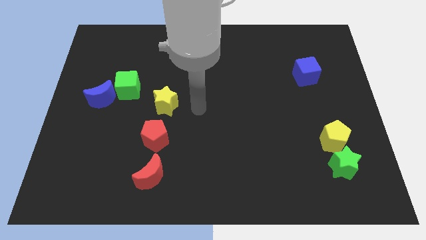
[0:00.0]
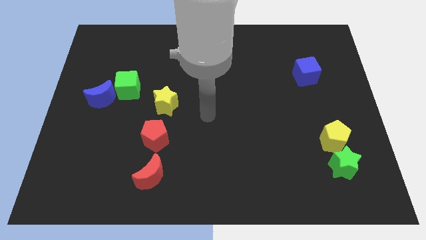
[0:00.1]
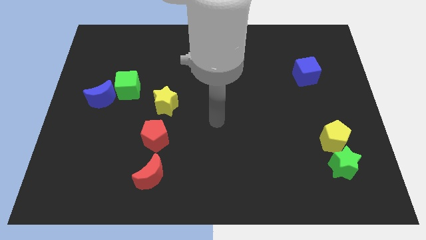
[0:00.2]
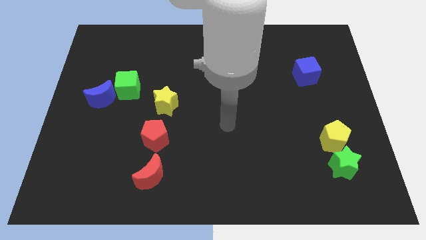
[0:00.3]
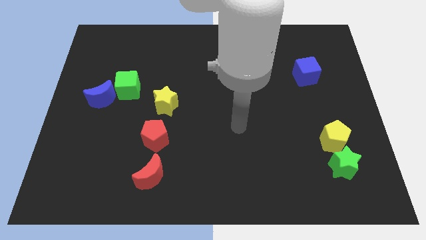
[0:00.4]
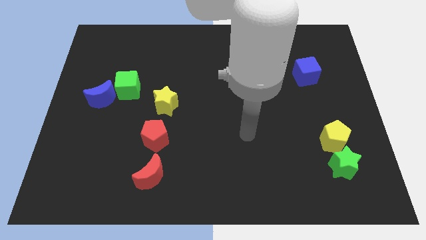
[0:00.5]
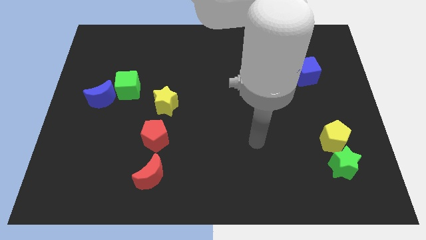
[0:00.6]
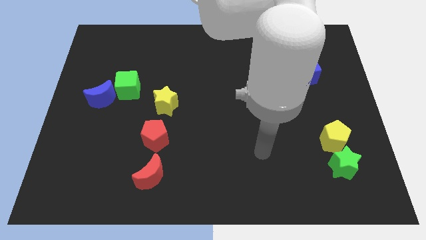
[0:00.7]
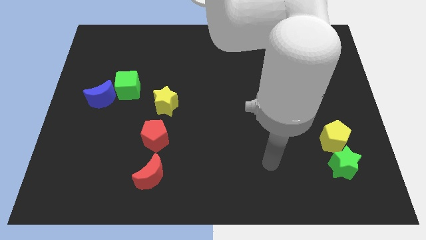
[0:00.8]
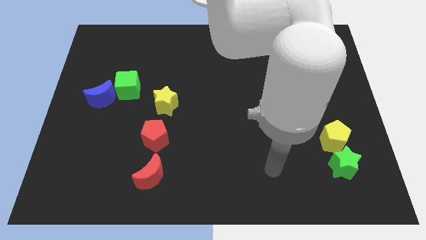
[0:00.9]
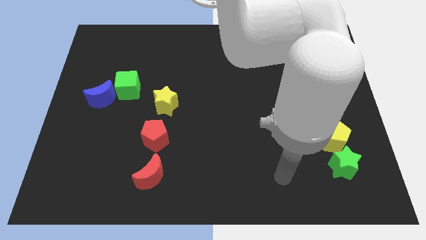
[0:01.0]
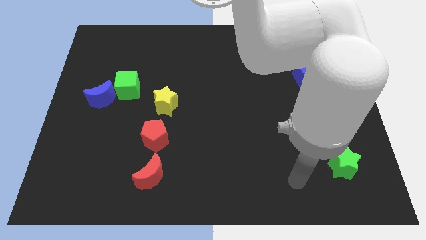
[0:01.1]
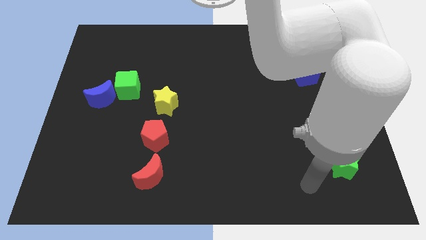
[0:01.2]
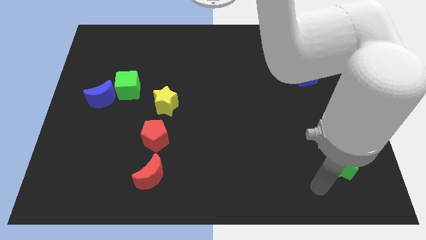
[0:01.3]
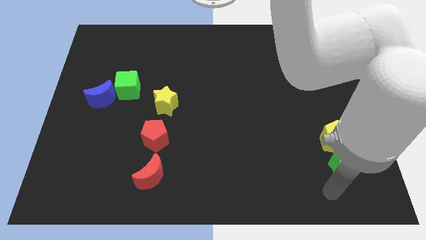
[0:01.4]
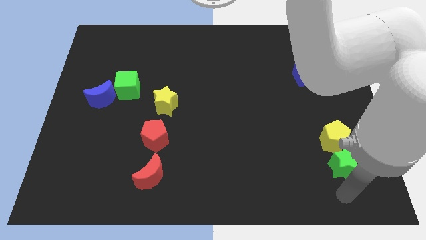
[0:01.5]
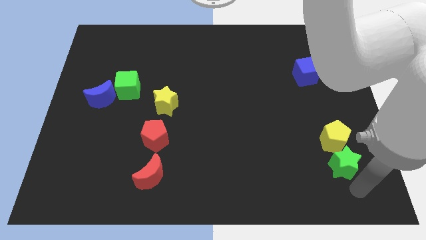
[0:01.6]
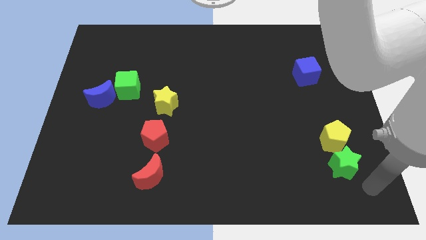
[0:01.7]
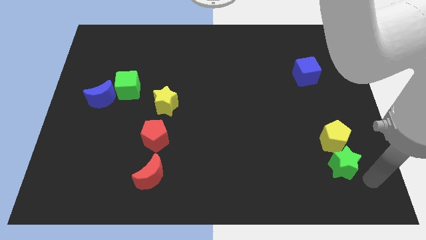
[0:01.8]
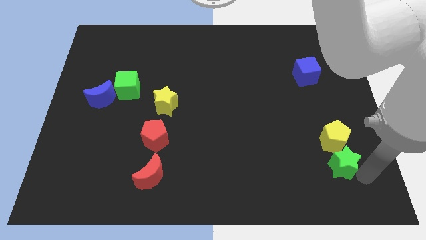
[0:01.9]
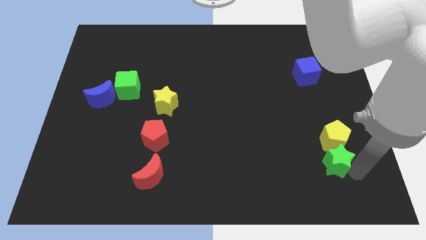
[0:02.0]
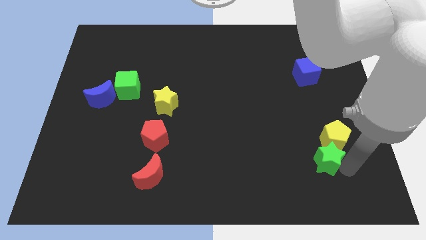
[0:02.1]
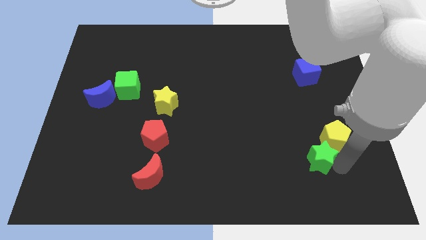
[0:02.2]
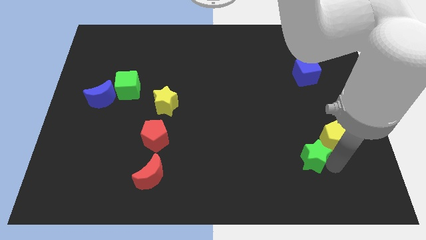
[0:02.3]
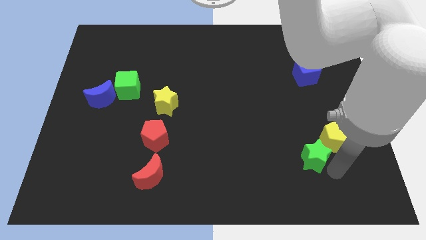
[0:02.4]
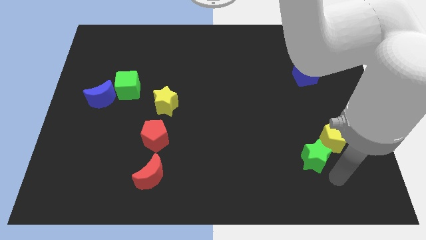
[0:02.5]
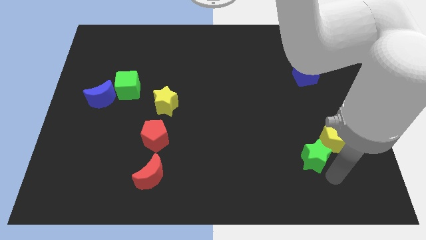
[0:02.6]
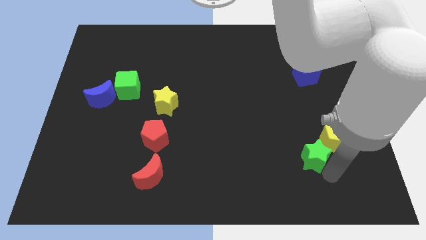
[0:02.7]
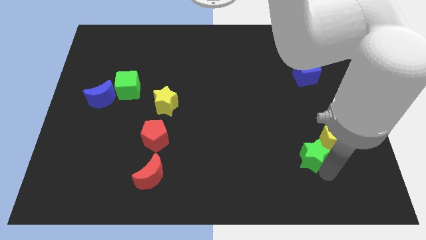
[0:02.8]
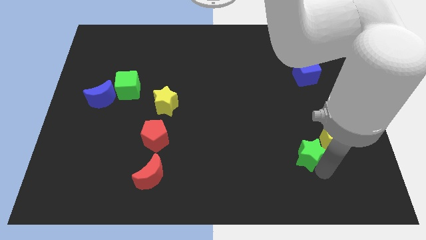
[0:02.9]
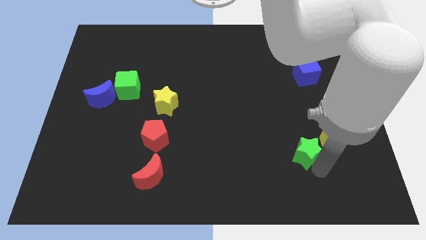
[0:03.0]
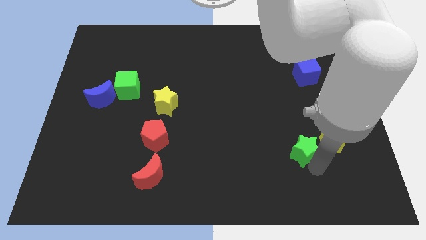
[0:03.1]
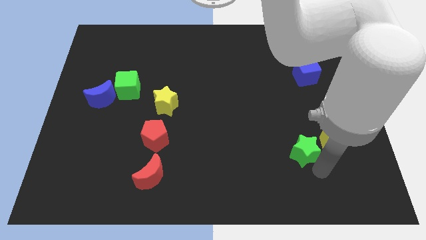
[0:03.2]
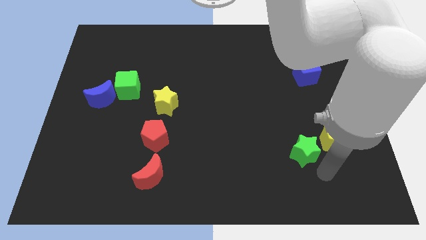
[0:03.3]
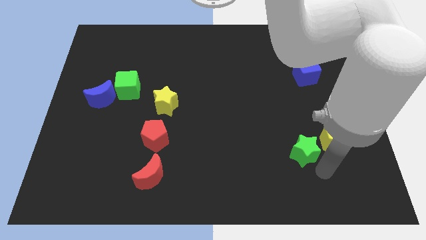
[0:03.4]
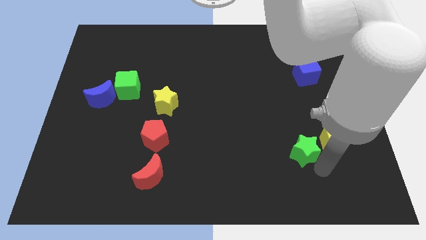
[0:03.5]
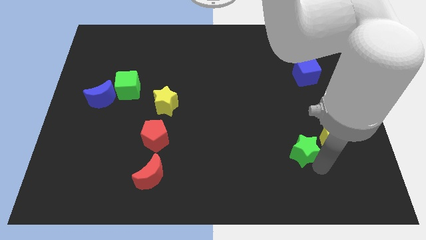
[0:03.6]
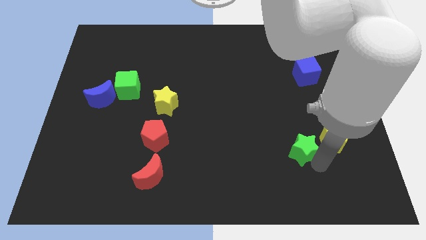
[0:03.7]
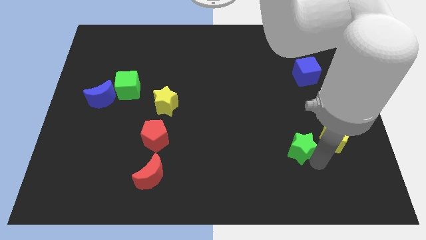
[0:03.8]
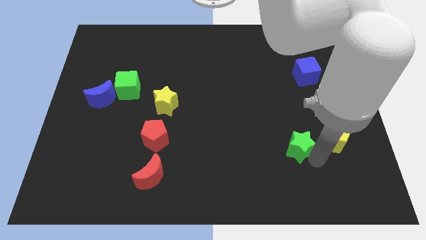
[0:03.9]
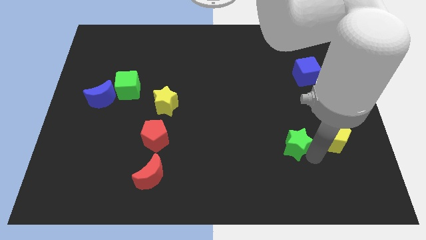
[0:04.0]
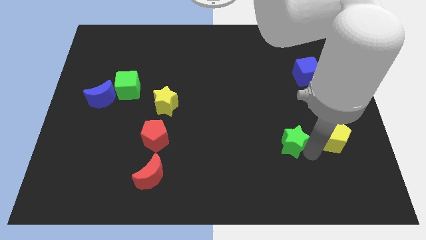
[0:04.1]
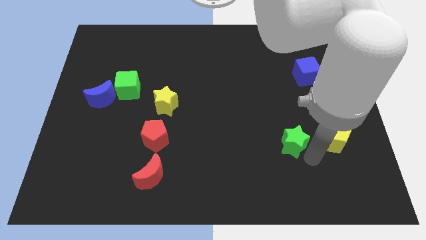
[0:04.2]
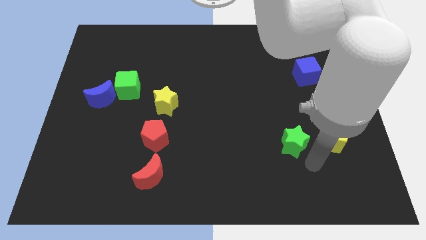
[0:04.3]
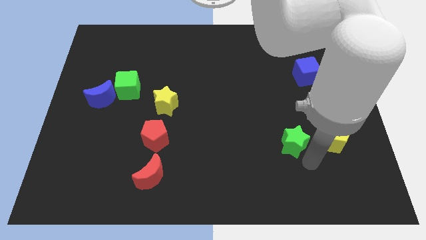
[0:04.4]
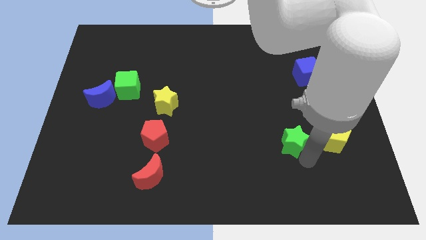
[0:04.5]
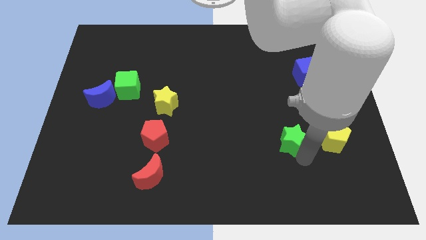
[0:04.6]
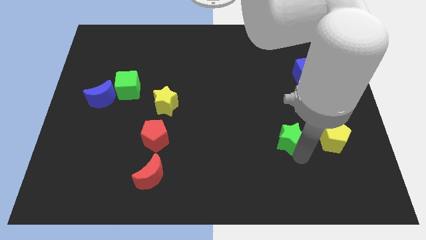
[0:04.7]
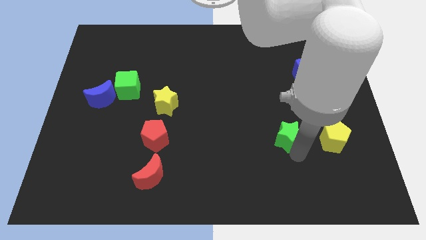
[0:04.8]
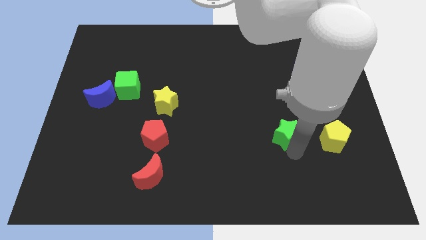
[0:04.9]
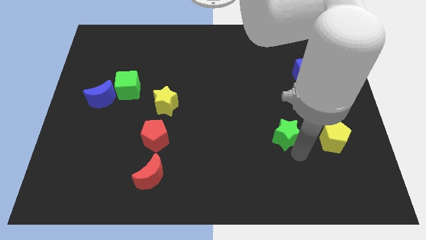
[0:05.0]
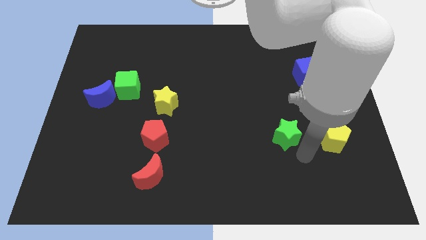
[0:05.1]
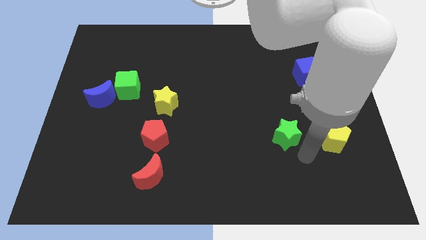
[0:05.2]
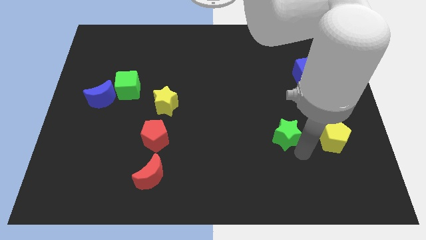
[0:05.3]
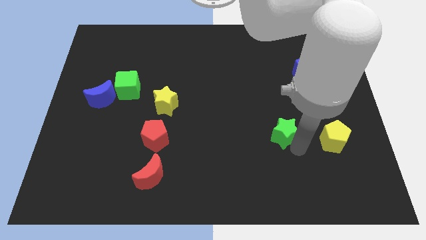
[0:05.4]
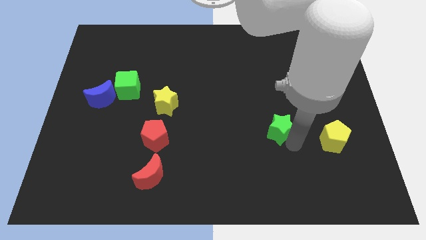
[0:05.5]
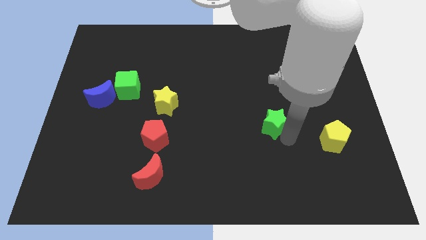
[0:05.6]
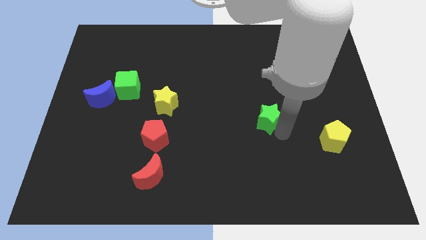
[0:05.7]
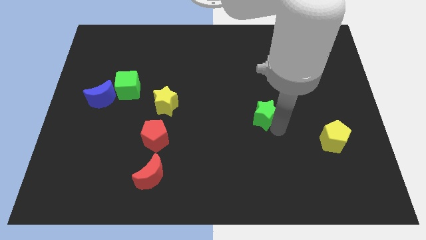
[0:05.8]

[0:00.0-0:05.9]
push the green star up and left diagonally

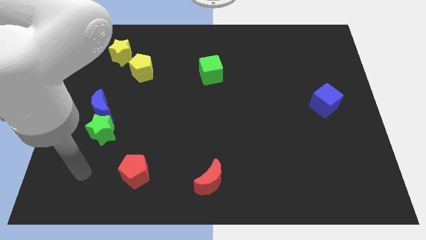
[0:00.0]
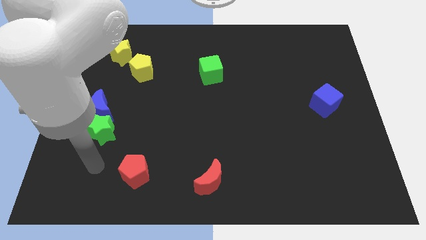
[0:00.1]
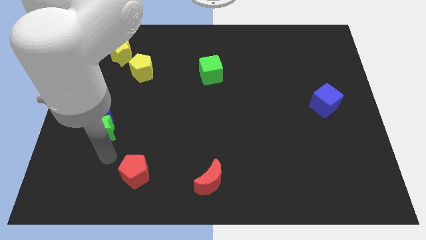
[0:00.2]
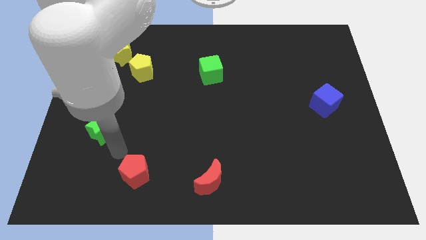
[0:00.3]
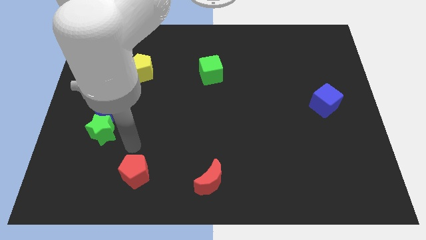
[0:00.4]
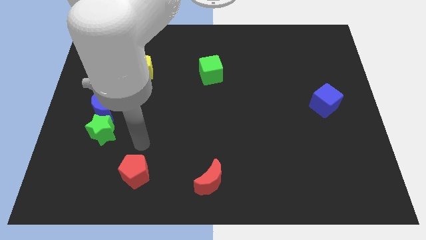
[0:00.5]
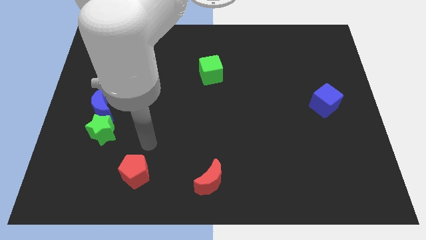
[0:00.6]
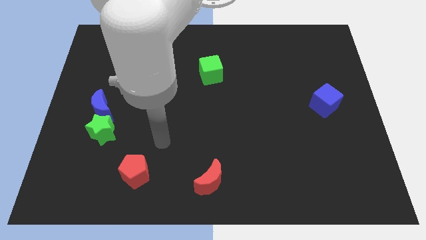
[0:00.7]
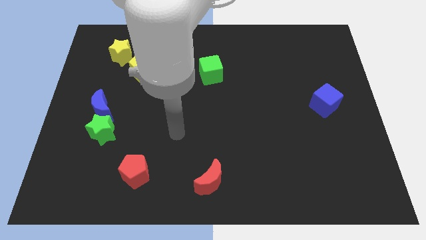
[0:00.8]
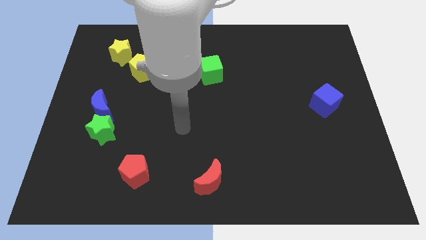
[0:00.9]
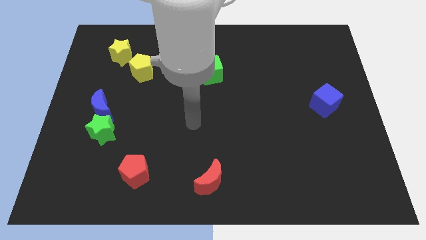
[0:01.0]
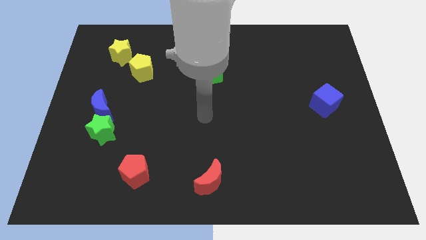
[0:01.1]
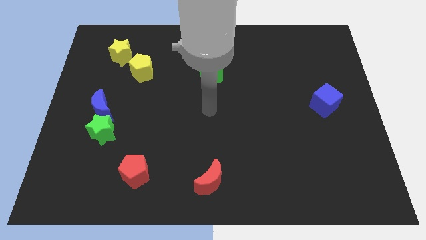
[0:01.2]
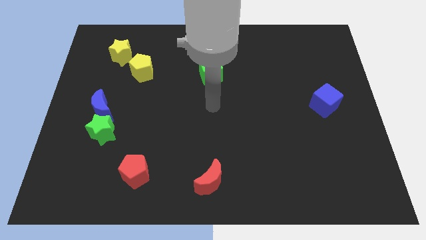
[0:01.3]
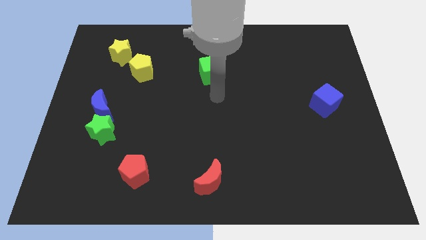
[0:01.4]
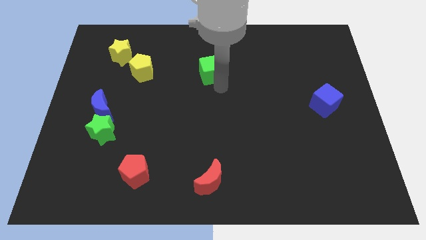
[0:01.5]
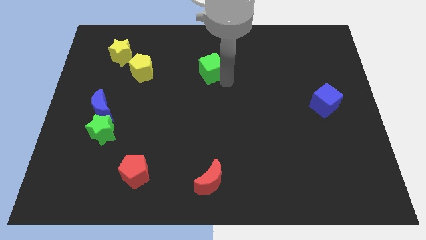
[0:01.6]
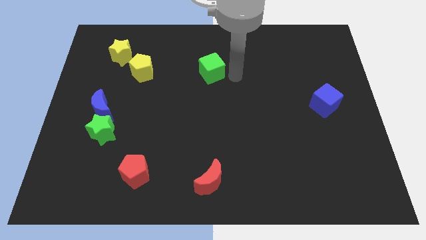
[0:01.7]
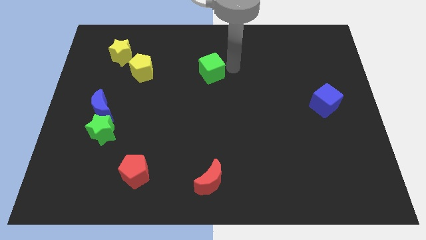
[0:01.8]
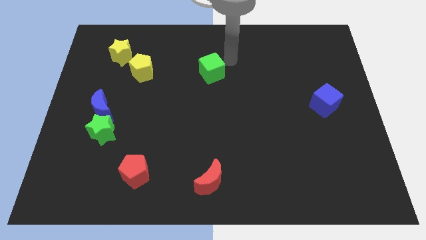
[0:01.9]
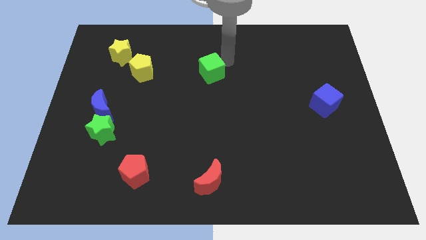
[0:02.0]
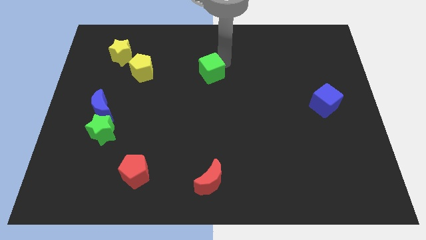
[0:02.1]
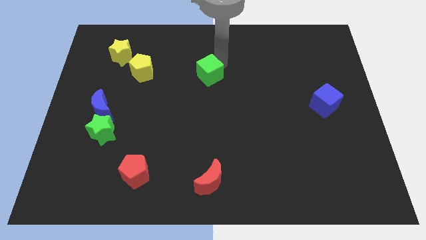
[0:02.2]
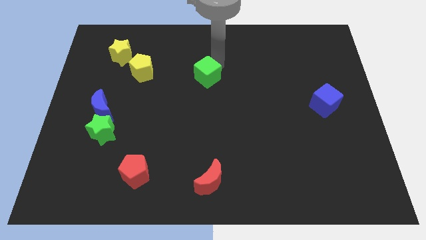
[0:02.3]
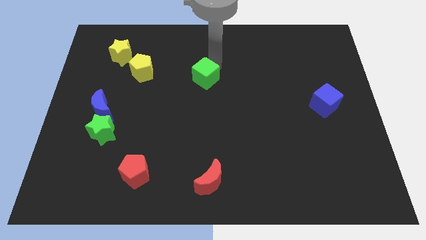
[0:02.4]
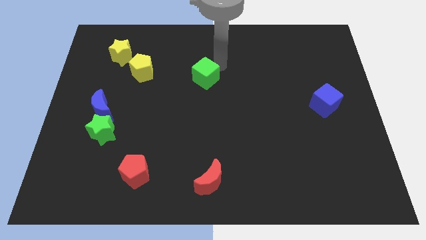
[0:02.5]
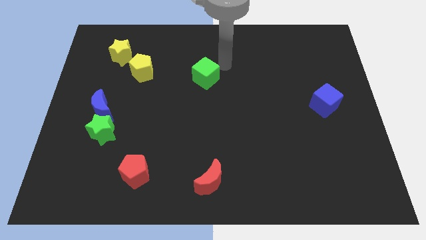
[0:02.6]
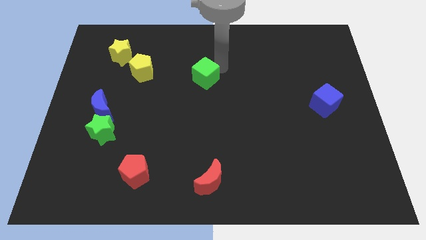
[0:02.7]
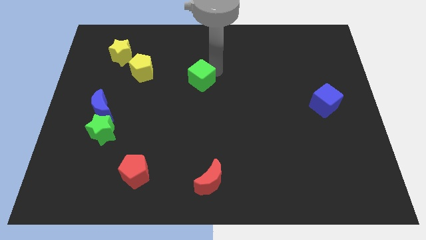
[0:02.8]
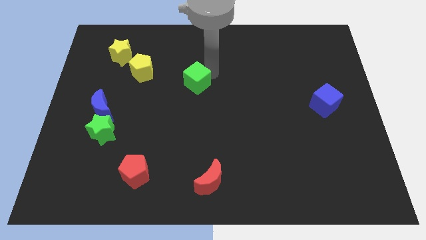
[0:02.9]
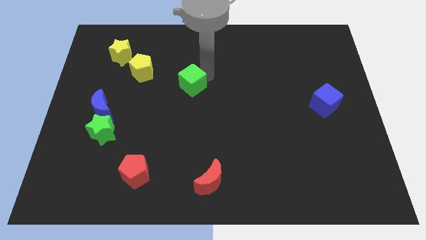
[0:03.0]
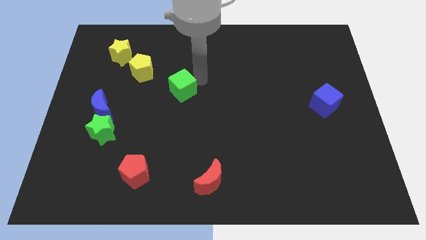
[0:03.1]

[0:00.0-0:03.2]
slightly slide the green cube downwards and to the left diagonally
